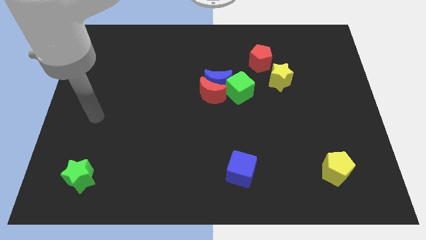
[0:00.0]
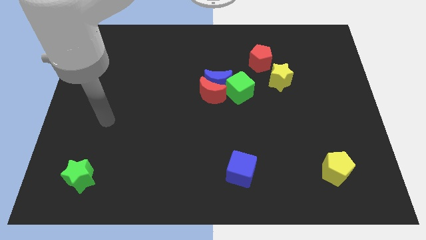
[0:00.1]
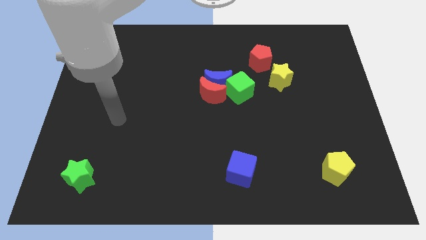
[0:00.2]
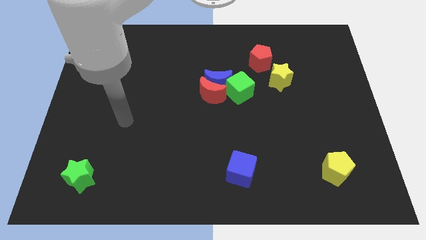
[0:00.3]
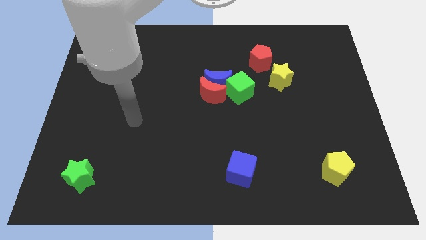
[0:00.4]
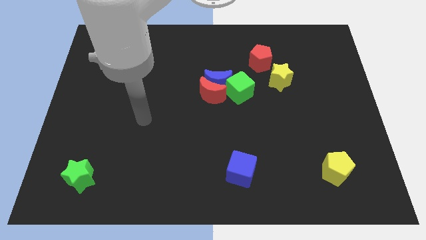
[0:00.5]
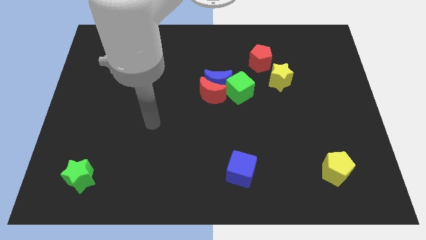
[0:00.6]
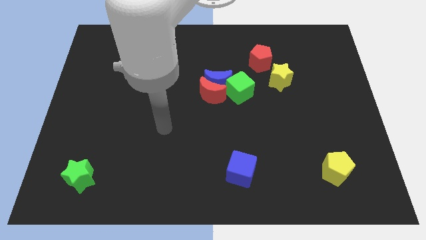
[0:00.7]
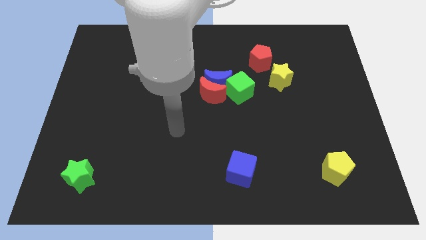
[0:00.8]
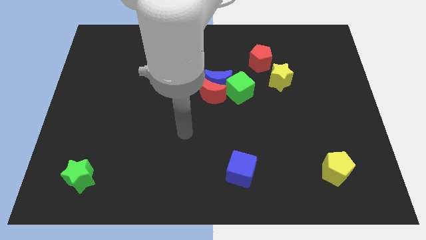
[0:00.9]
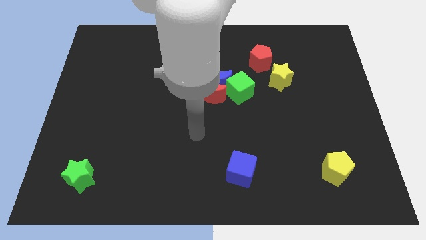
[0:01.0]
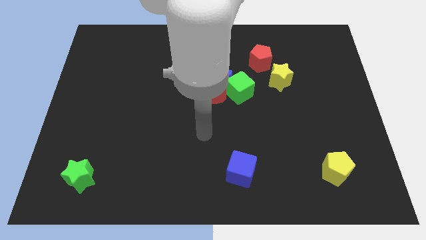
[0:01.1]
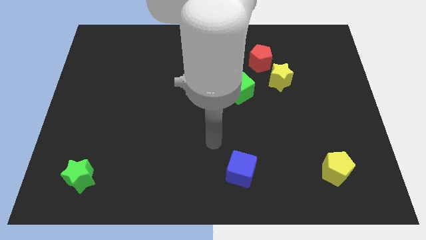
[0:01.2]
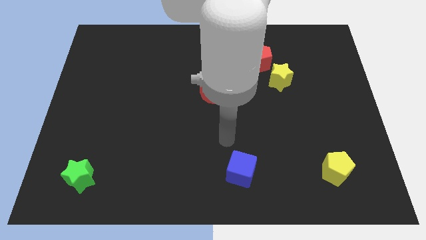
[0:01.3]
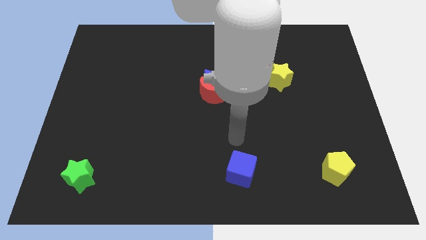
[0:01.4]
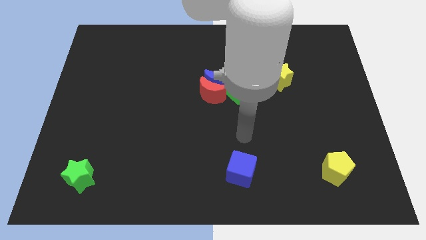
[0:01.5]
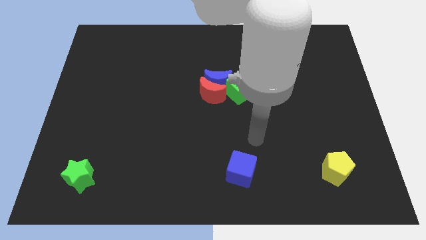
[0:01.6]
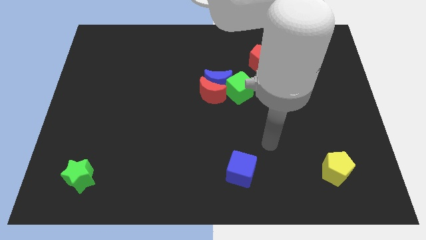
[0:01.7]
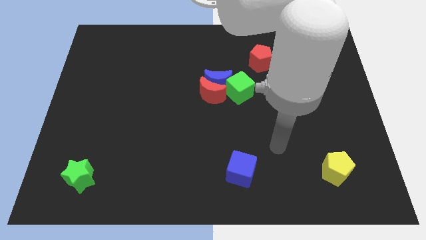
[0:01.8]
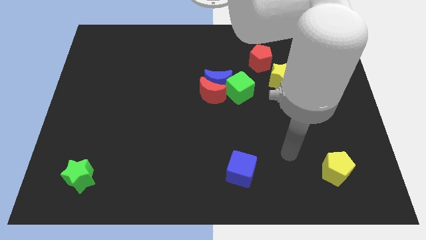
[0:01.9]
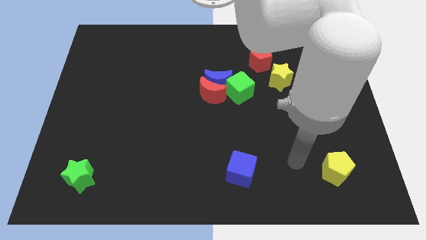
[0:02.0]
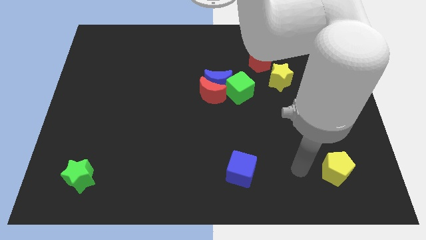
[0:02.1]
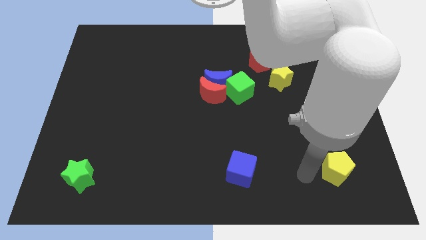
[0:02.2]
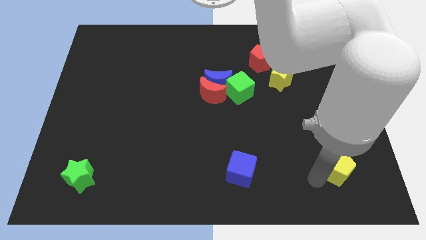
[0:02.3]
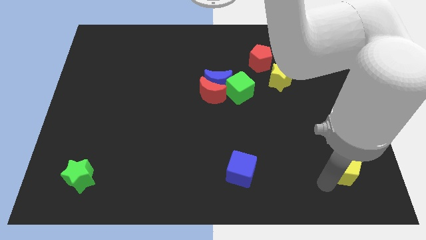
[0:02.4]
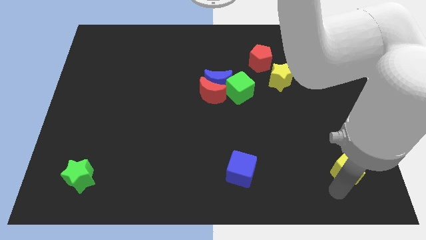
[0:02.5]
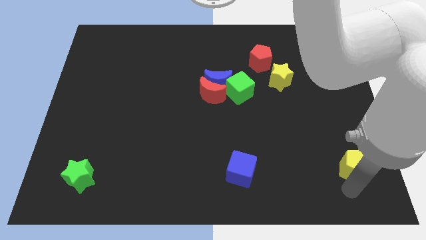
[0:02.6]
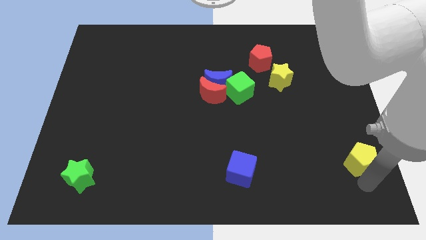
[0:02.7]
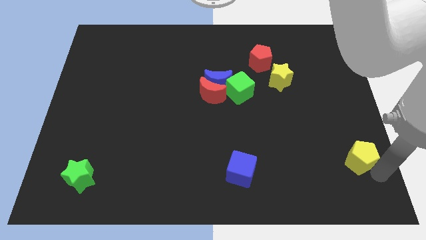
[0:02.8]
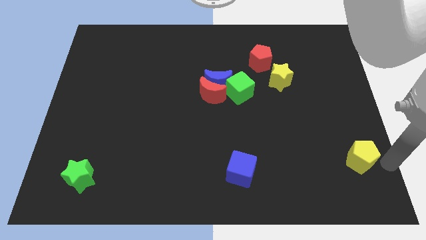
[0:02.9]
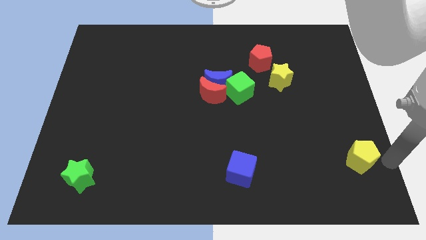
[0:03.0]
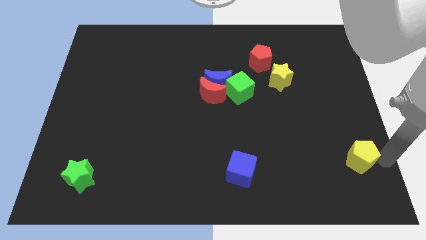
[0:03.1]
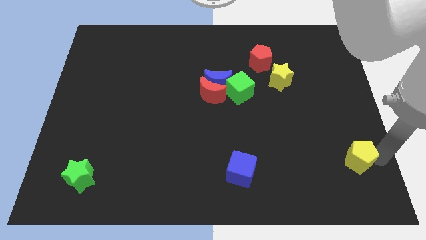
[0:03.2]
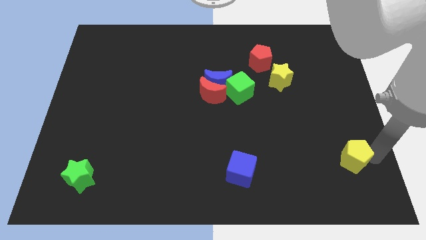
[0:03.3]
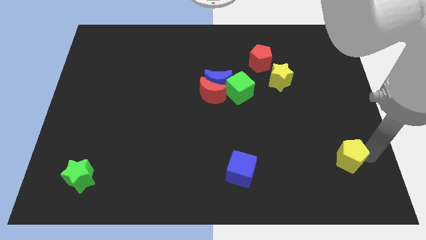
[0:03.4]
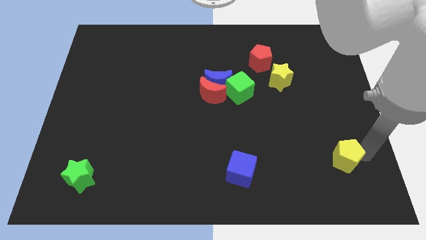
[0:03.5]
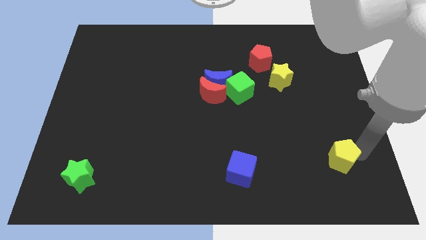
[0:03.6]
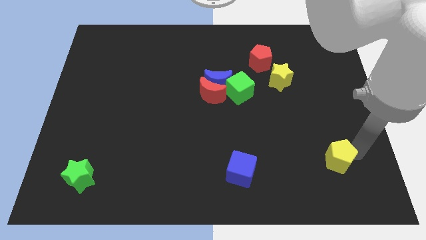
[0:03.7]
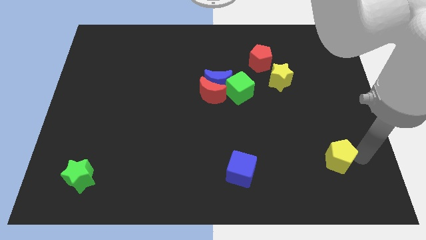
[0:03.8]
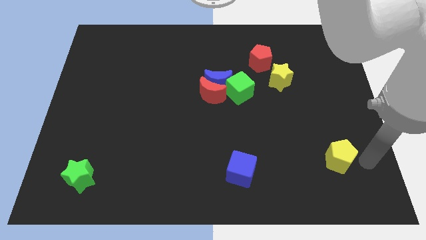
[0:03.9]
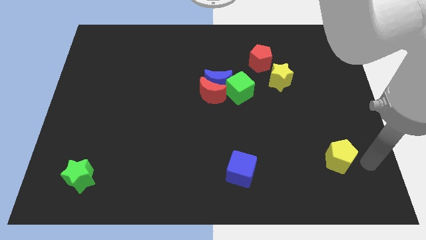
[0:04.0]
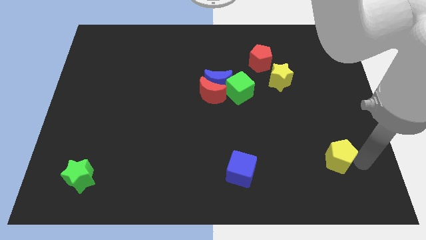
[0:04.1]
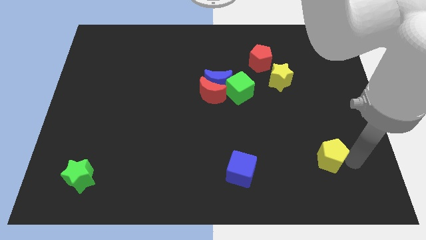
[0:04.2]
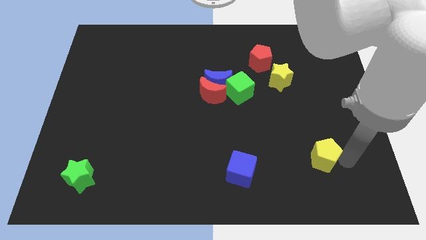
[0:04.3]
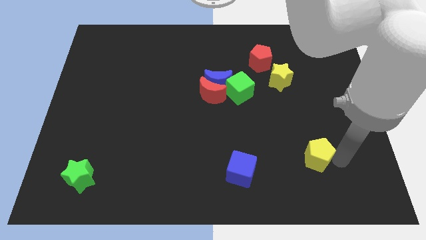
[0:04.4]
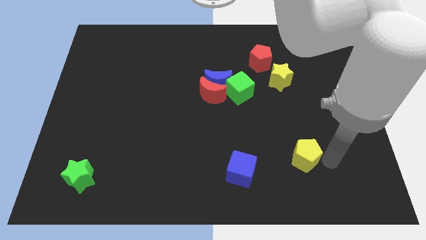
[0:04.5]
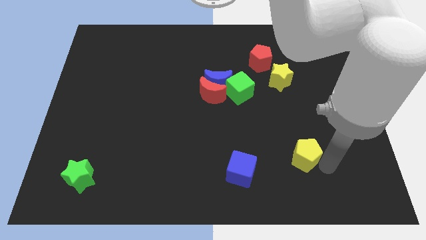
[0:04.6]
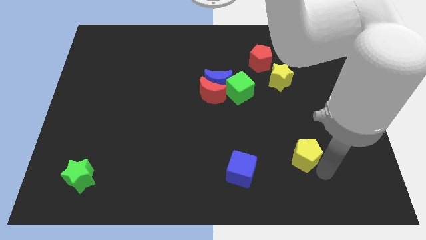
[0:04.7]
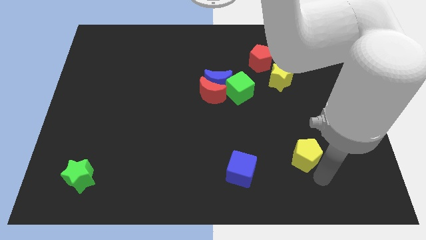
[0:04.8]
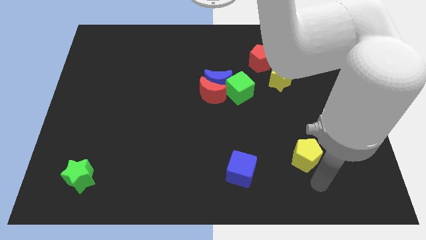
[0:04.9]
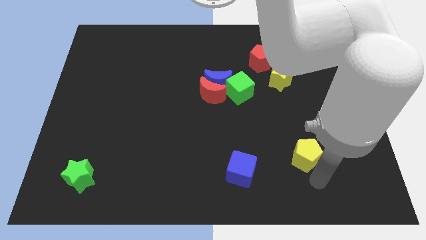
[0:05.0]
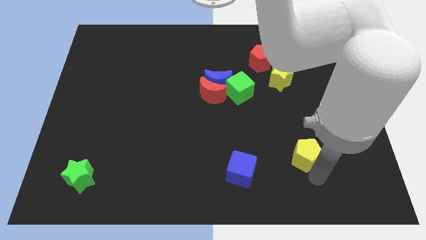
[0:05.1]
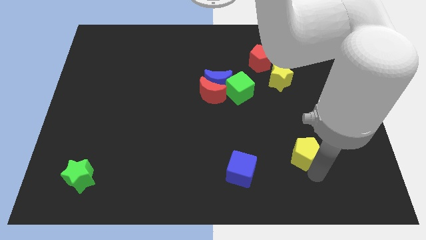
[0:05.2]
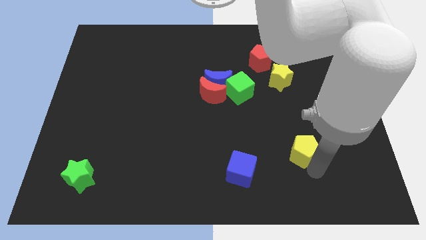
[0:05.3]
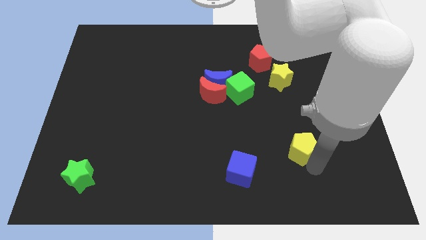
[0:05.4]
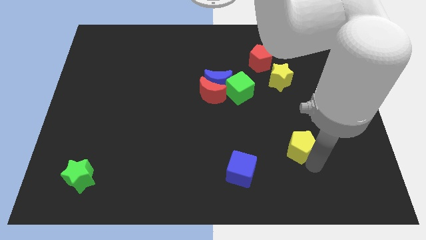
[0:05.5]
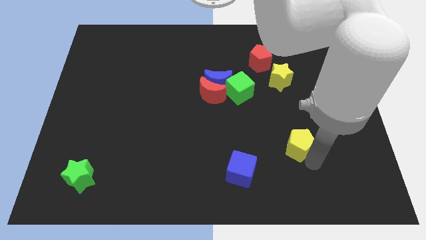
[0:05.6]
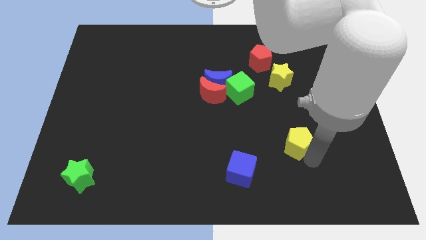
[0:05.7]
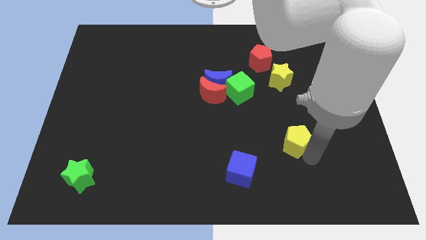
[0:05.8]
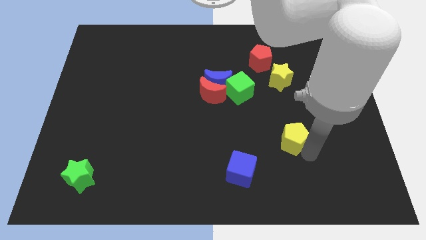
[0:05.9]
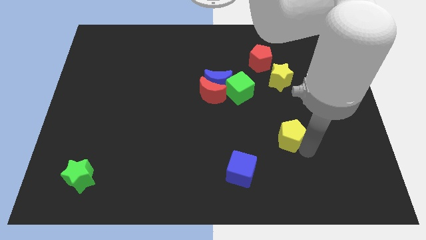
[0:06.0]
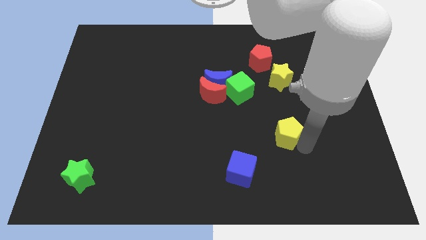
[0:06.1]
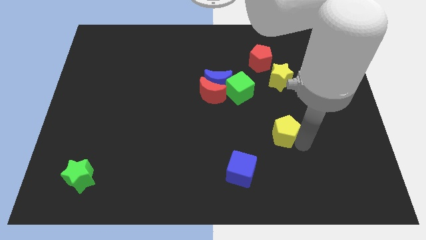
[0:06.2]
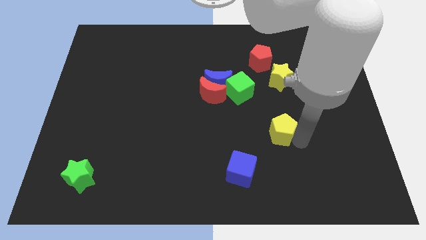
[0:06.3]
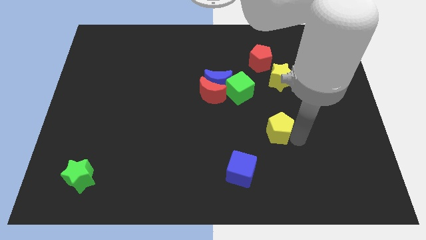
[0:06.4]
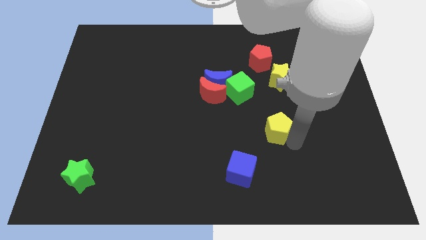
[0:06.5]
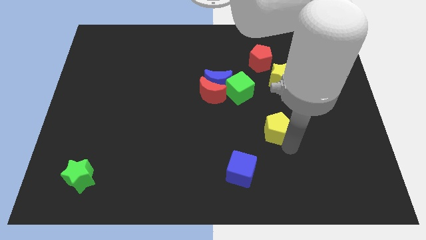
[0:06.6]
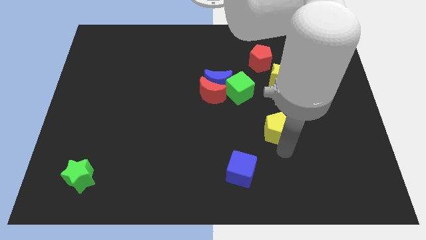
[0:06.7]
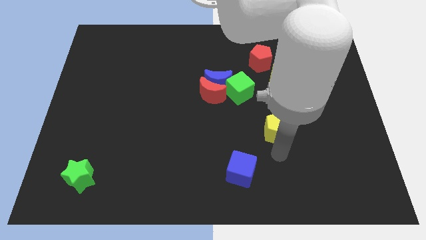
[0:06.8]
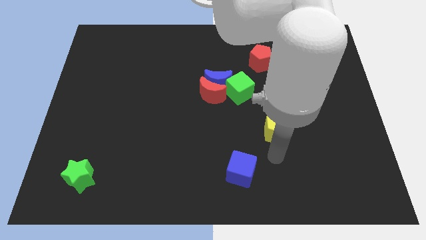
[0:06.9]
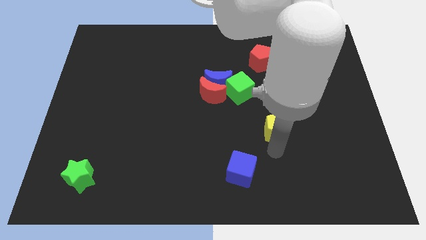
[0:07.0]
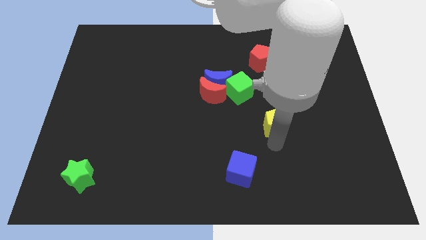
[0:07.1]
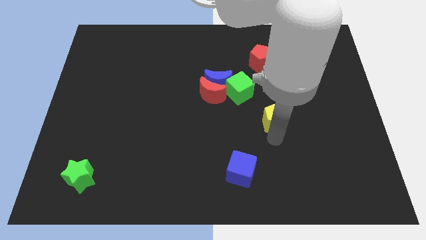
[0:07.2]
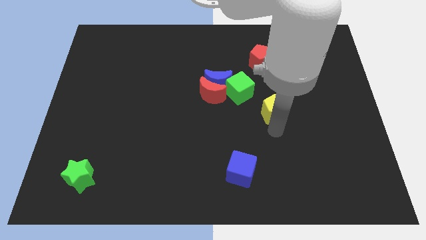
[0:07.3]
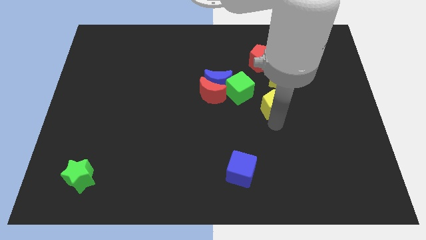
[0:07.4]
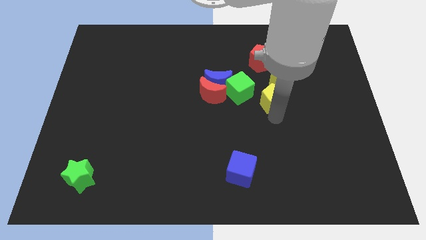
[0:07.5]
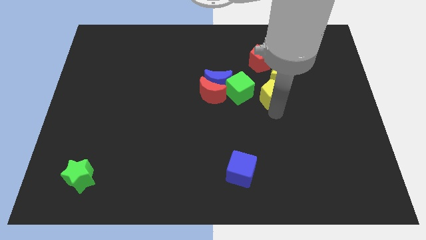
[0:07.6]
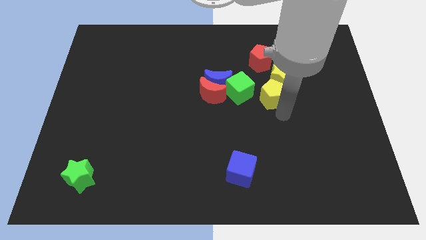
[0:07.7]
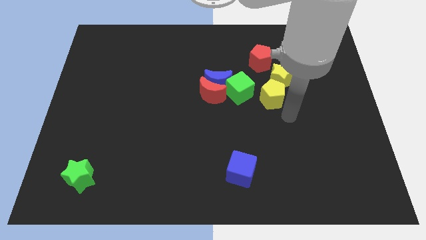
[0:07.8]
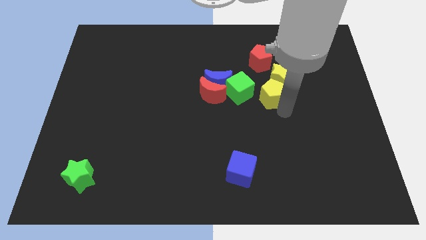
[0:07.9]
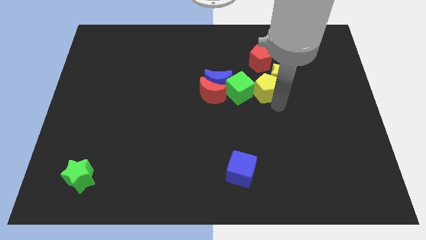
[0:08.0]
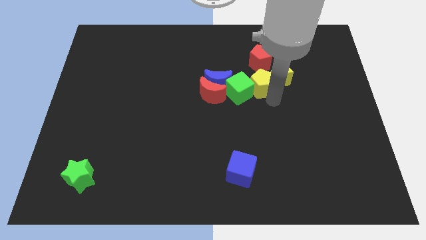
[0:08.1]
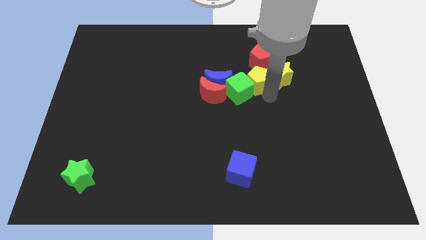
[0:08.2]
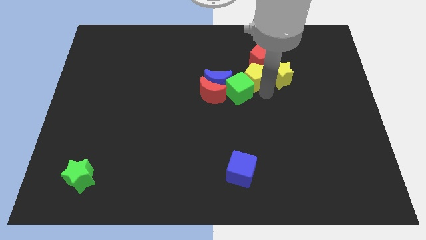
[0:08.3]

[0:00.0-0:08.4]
push the yellow pentagon to the top side of the green cube

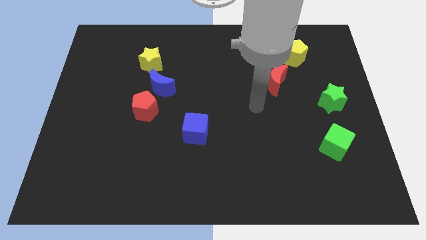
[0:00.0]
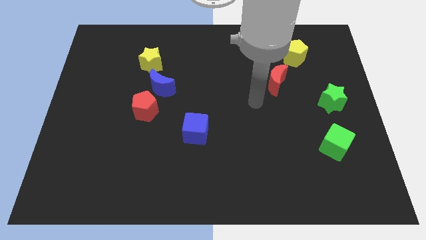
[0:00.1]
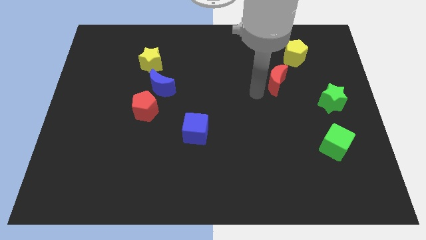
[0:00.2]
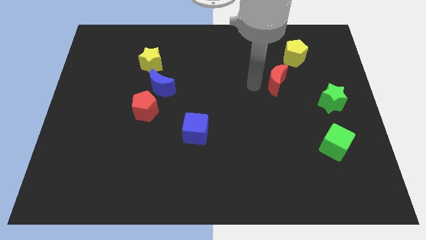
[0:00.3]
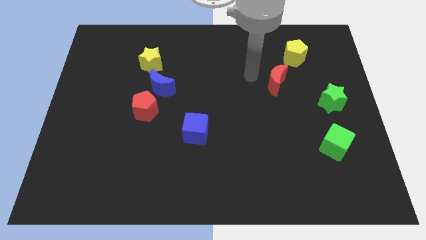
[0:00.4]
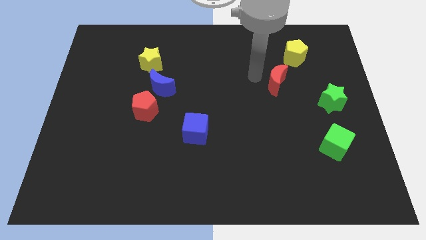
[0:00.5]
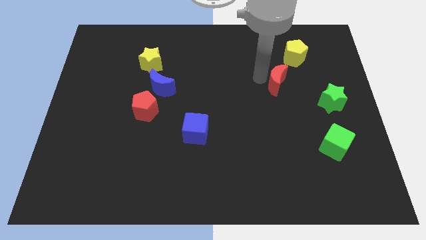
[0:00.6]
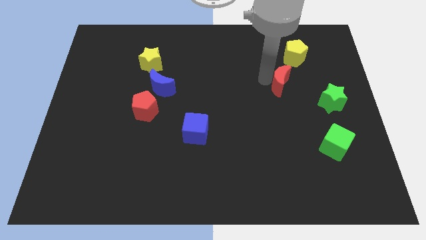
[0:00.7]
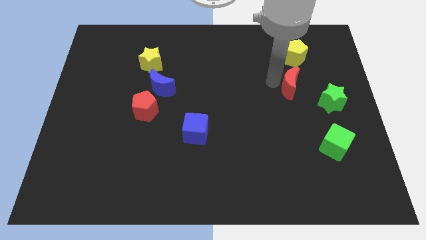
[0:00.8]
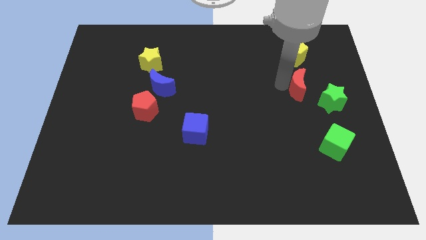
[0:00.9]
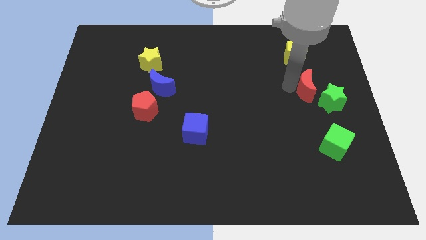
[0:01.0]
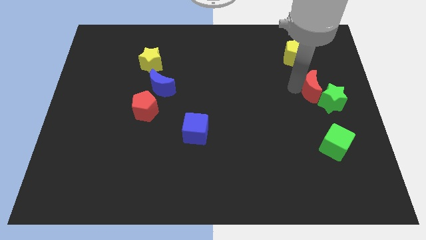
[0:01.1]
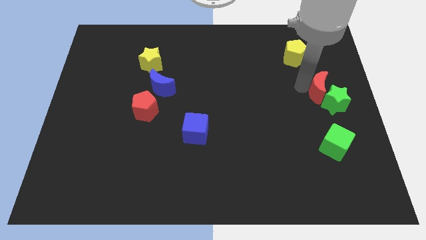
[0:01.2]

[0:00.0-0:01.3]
put the red moon to the top side of the green cube
